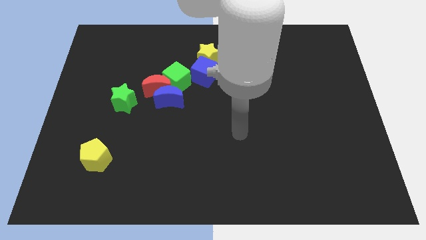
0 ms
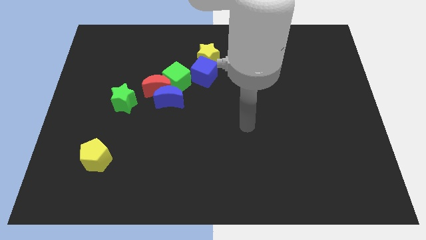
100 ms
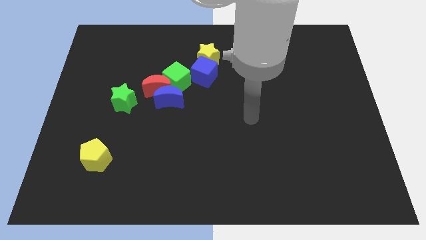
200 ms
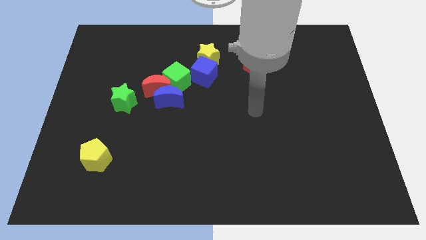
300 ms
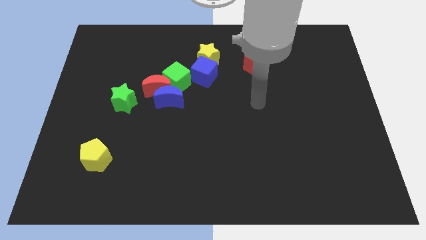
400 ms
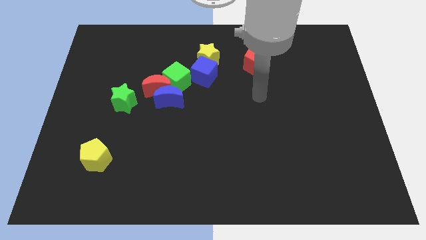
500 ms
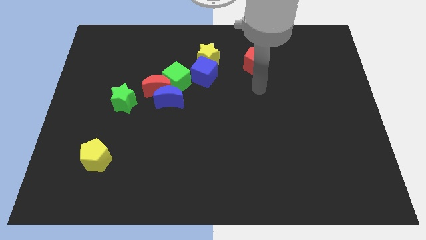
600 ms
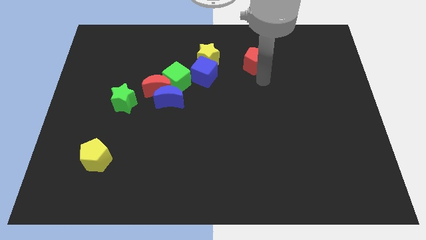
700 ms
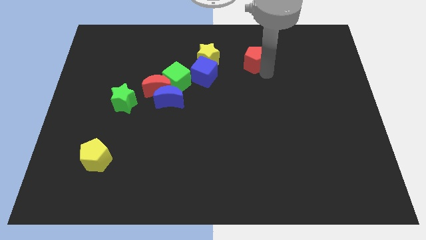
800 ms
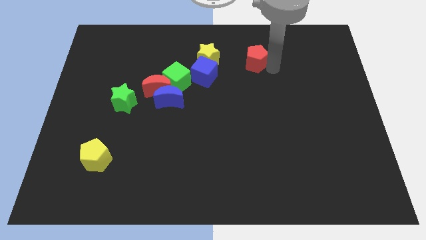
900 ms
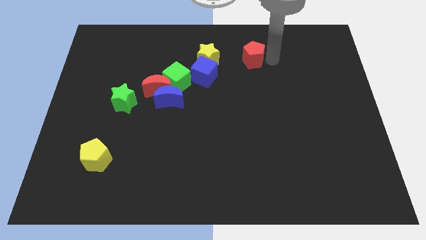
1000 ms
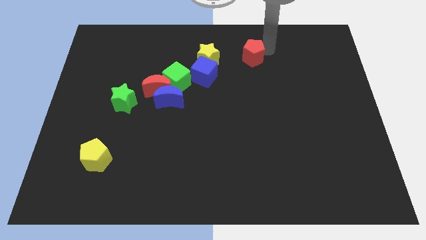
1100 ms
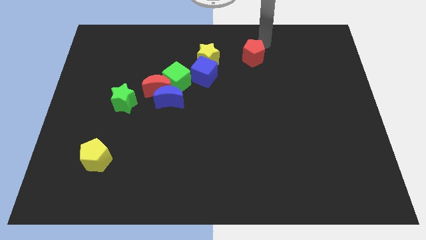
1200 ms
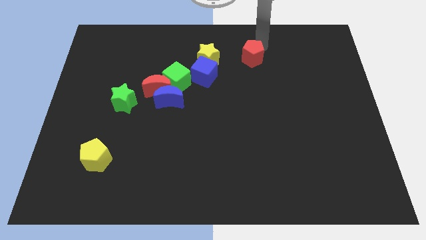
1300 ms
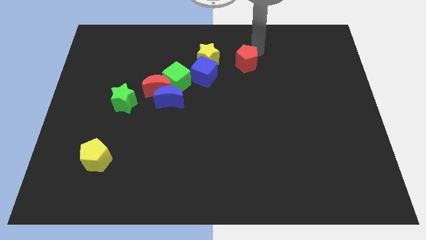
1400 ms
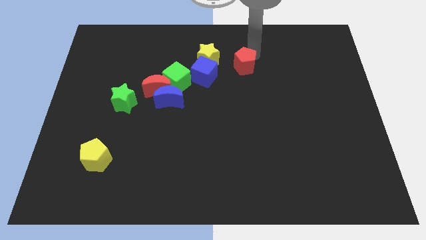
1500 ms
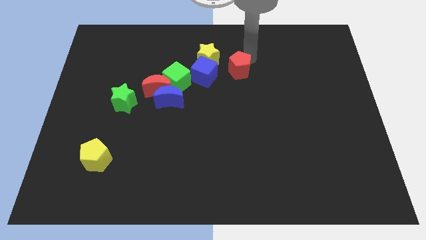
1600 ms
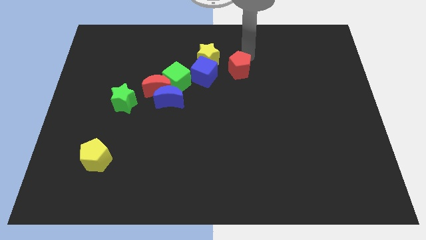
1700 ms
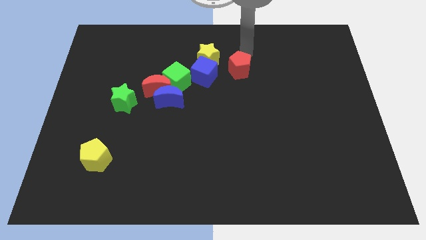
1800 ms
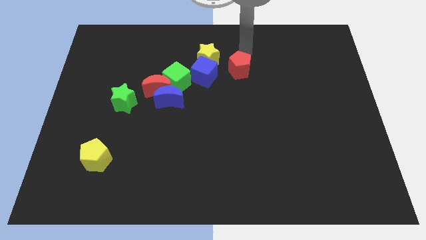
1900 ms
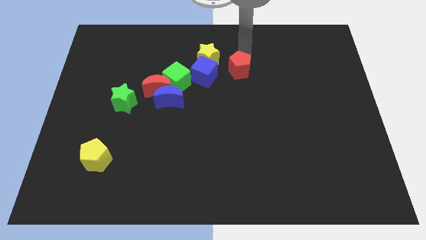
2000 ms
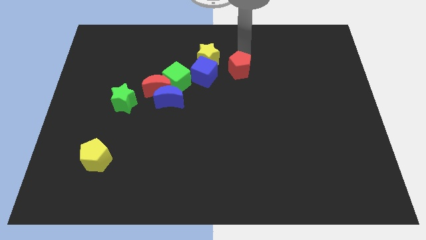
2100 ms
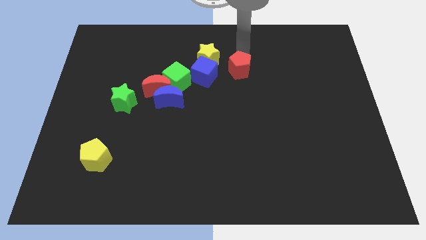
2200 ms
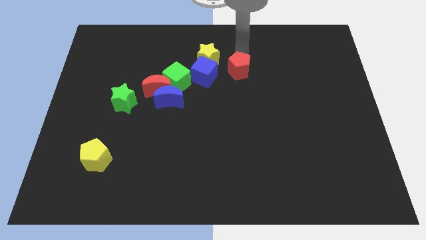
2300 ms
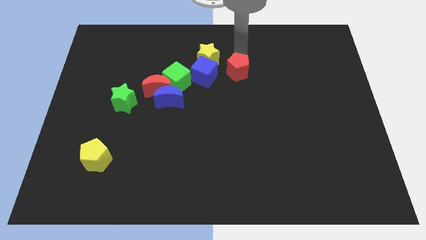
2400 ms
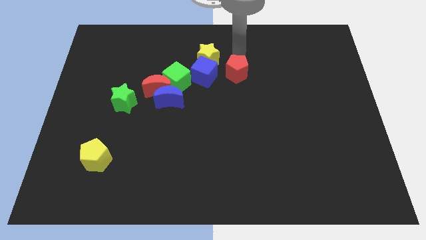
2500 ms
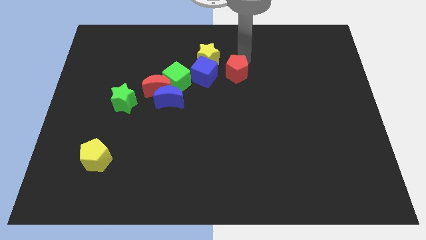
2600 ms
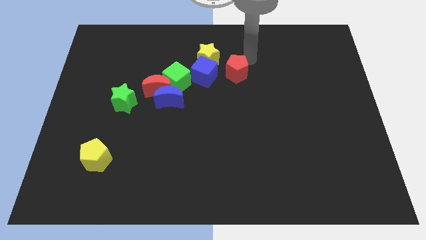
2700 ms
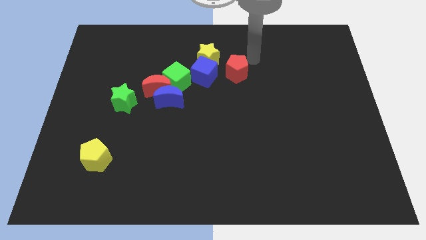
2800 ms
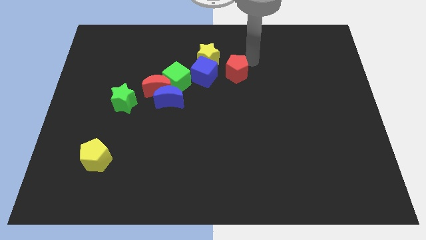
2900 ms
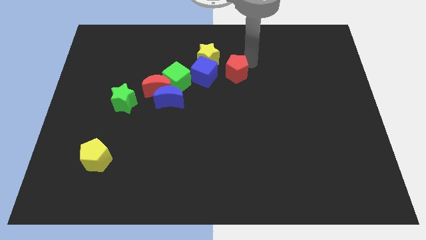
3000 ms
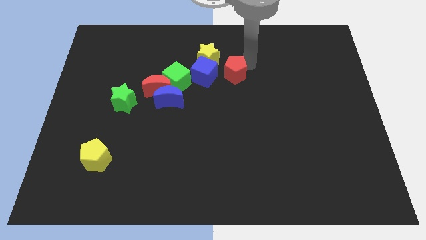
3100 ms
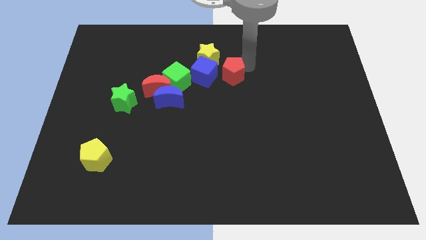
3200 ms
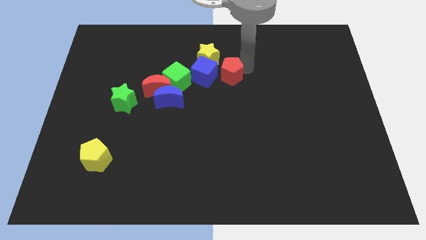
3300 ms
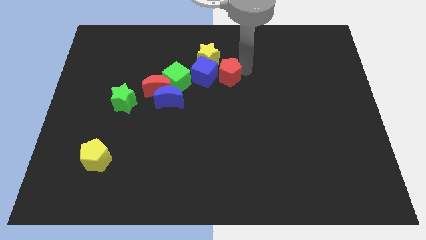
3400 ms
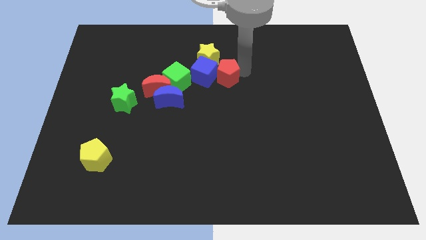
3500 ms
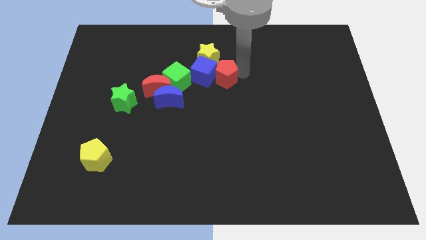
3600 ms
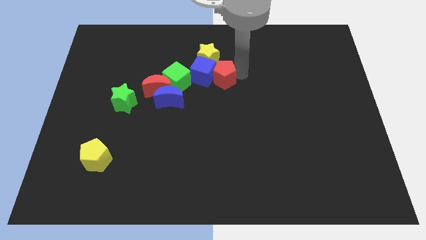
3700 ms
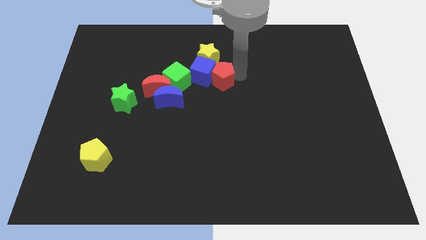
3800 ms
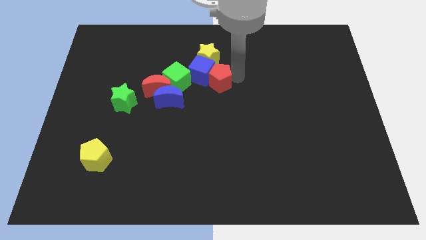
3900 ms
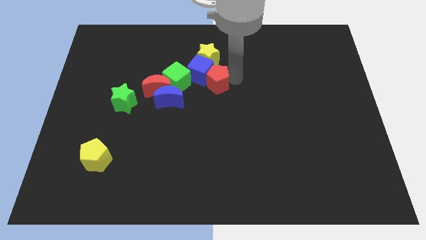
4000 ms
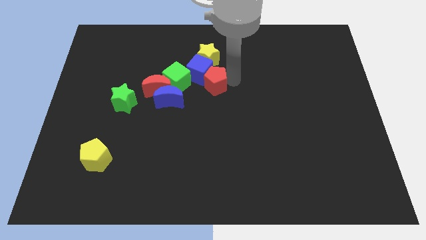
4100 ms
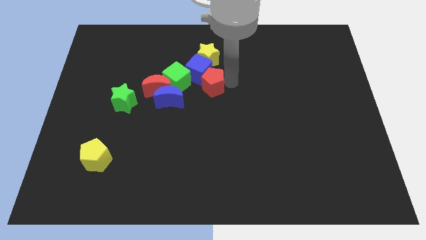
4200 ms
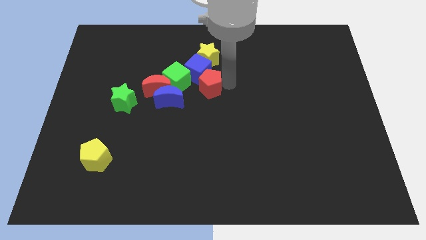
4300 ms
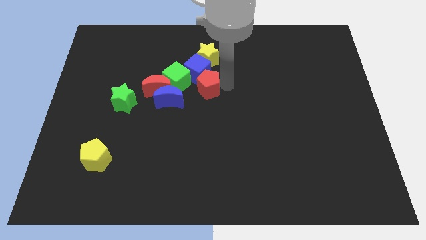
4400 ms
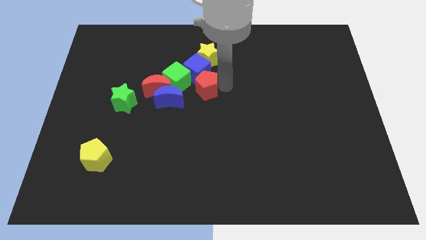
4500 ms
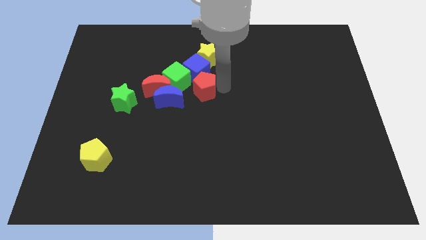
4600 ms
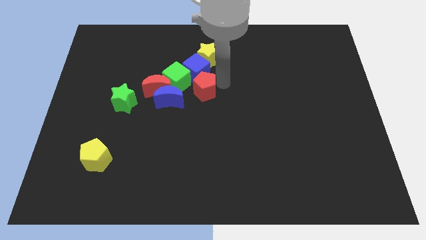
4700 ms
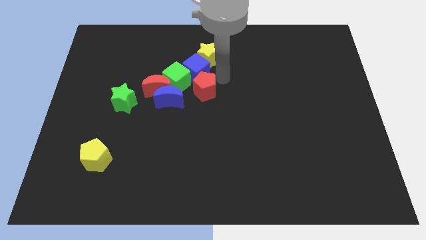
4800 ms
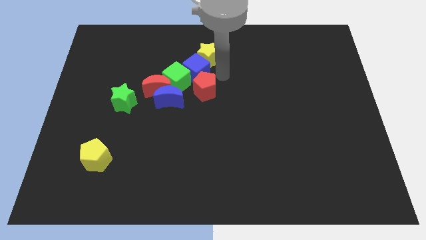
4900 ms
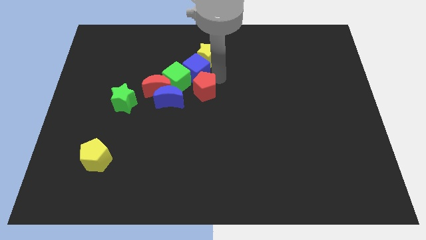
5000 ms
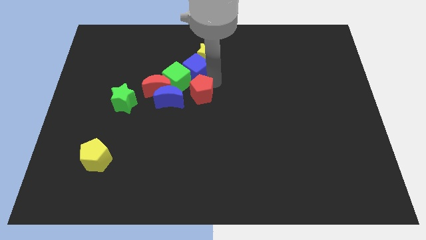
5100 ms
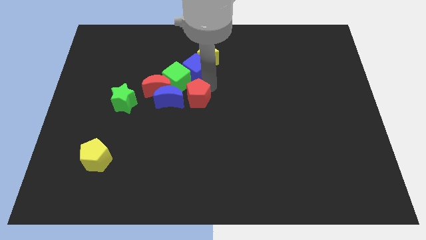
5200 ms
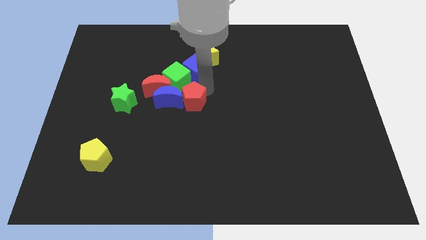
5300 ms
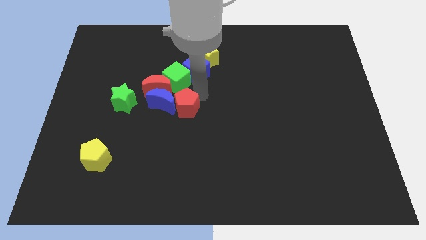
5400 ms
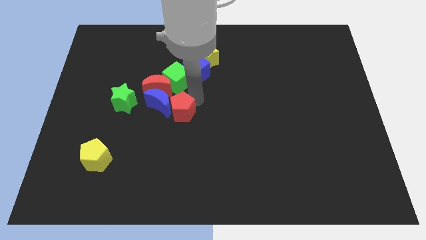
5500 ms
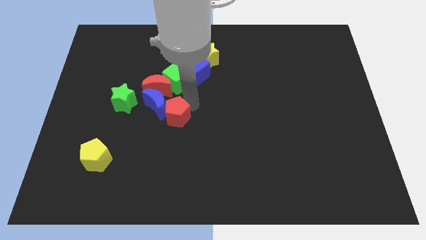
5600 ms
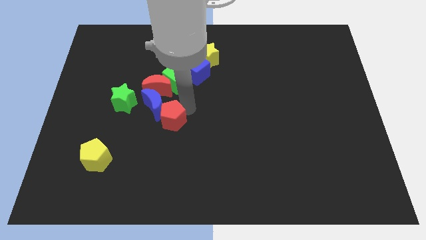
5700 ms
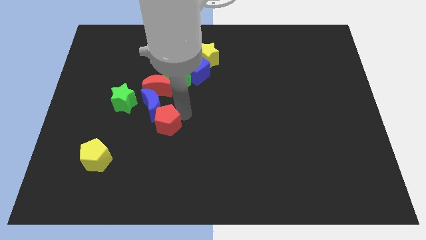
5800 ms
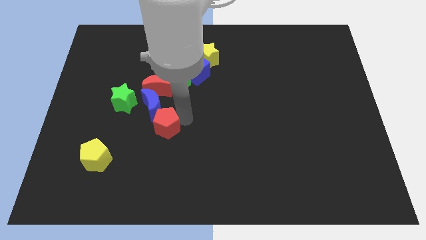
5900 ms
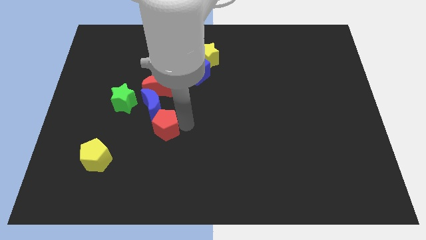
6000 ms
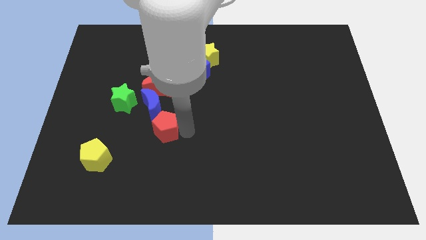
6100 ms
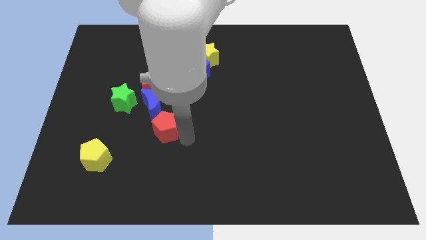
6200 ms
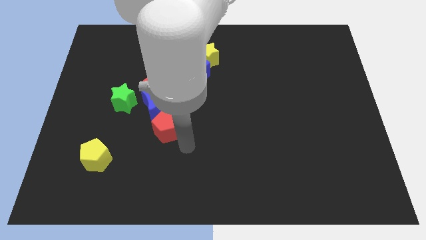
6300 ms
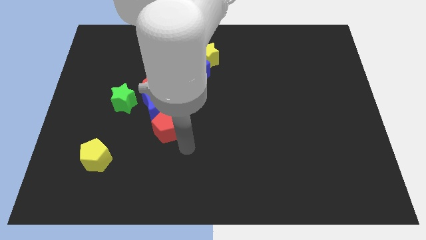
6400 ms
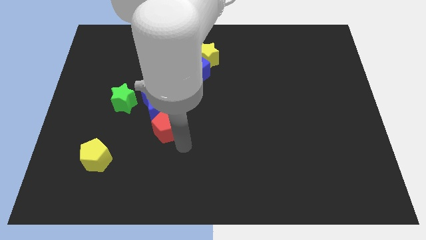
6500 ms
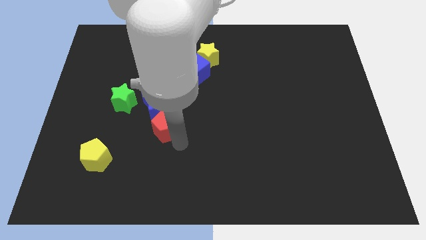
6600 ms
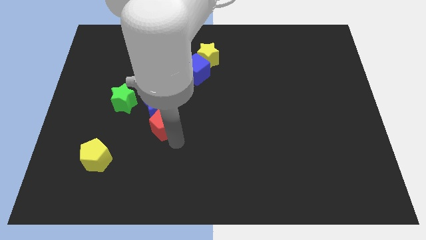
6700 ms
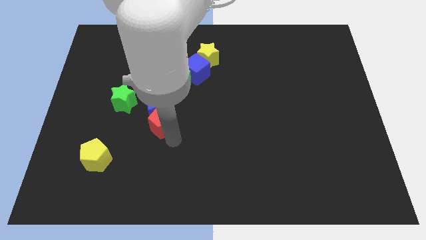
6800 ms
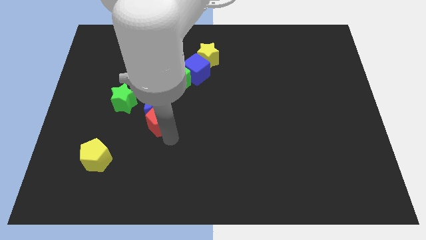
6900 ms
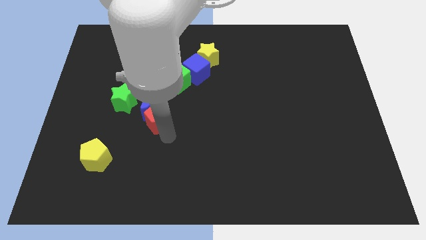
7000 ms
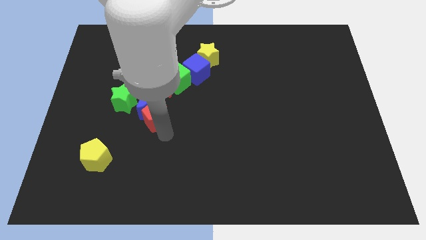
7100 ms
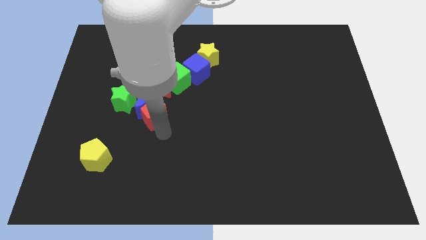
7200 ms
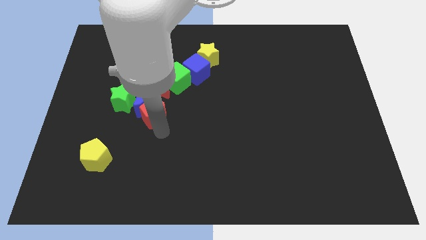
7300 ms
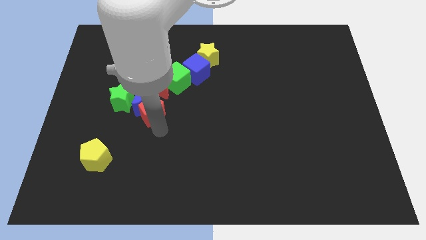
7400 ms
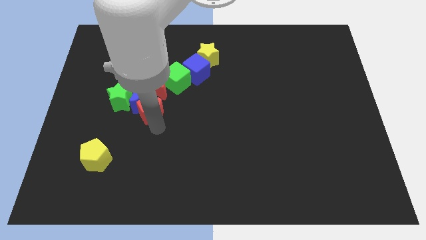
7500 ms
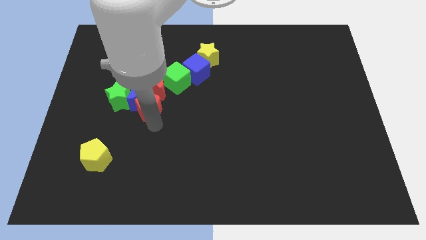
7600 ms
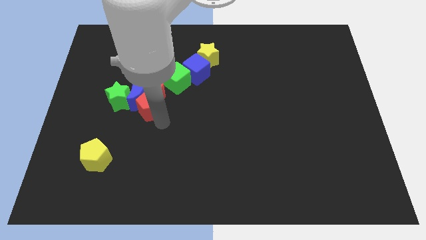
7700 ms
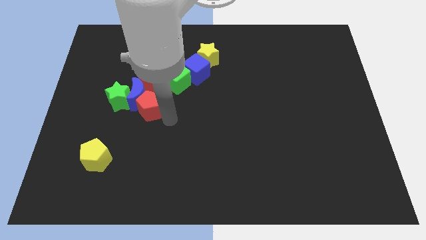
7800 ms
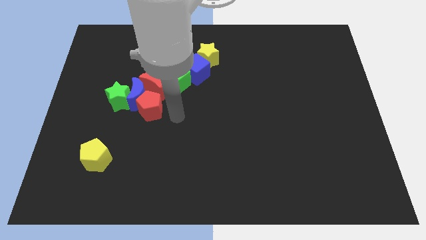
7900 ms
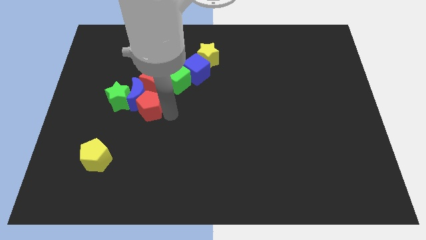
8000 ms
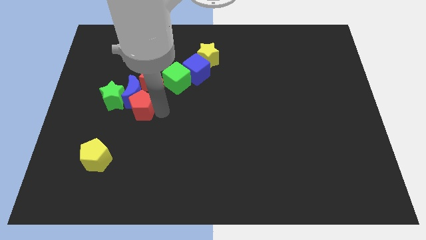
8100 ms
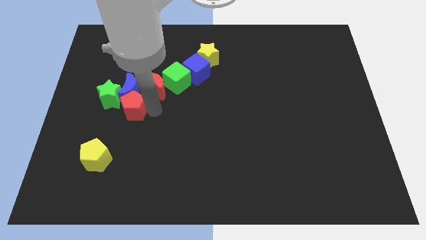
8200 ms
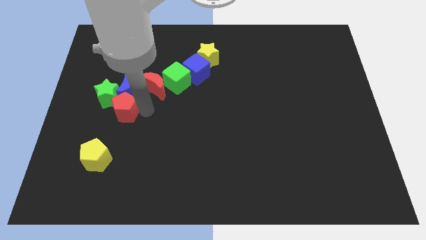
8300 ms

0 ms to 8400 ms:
push the red pentagon to the green star
